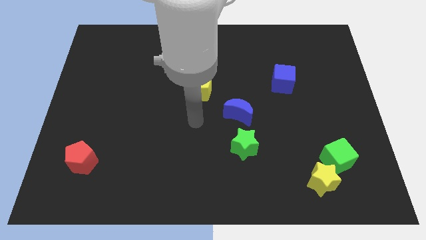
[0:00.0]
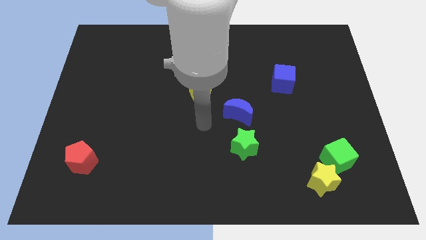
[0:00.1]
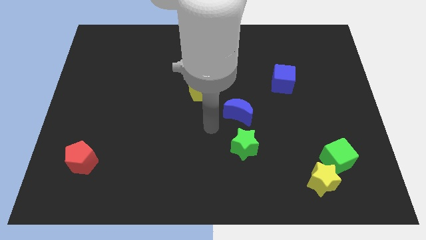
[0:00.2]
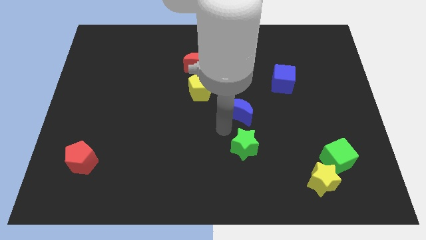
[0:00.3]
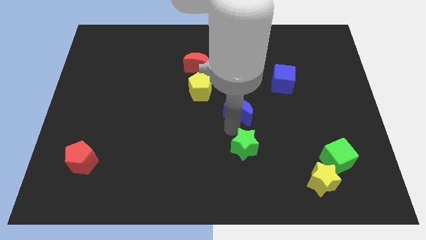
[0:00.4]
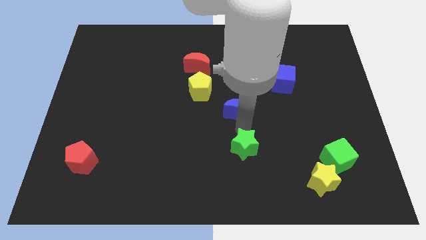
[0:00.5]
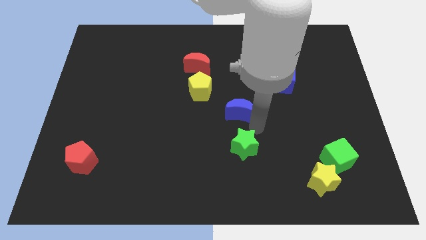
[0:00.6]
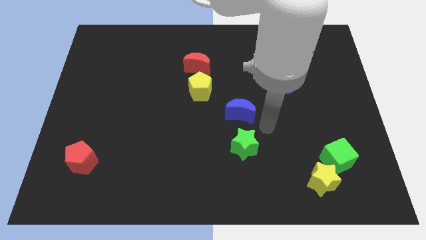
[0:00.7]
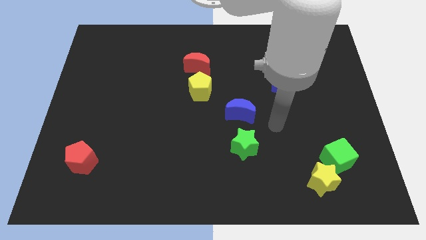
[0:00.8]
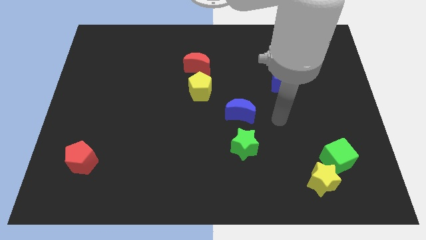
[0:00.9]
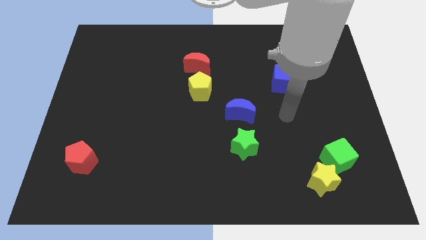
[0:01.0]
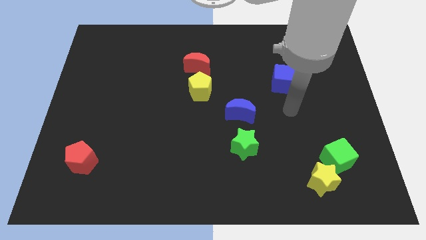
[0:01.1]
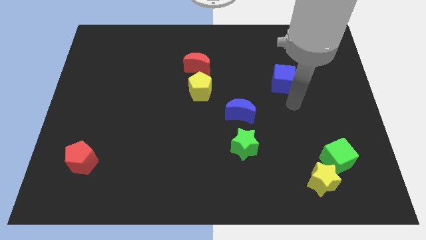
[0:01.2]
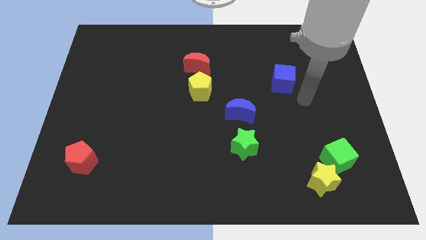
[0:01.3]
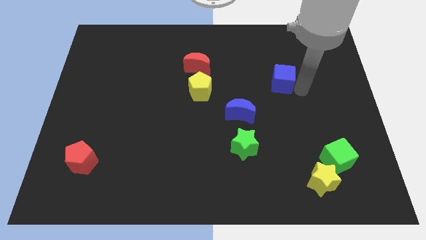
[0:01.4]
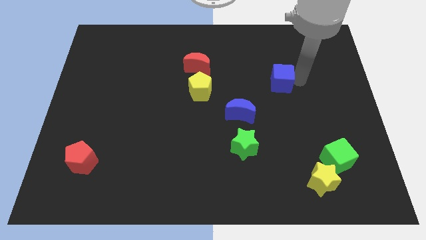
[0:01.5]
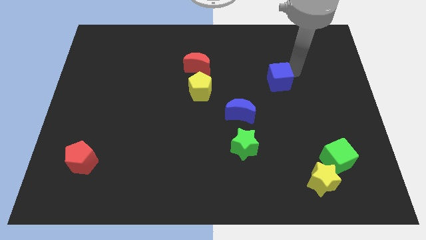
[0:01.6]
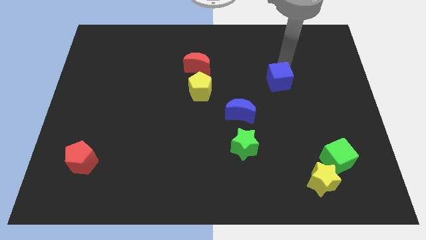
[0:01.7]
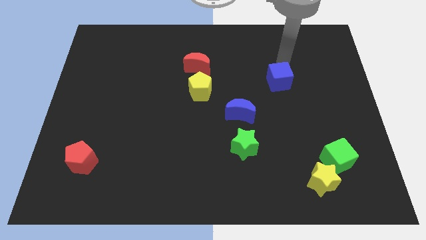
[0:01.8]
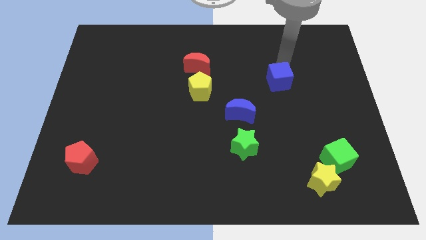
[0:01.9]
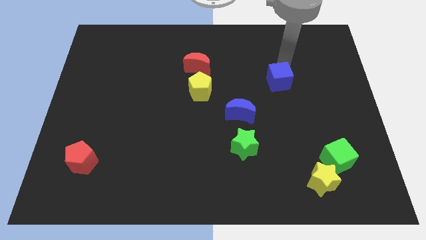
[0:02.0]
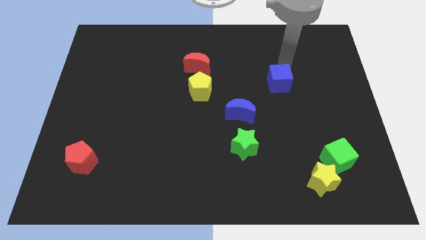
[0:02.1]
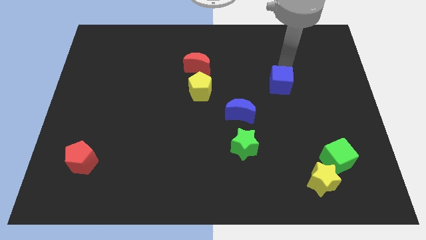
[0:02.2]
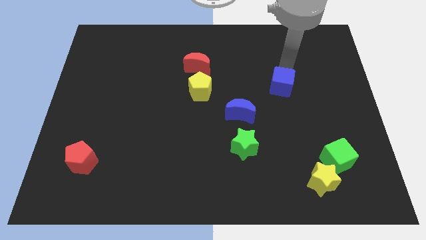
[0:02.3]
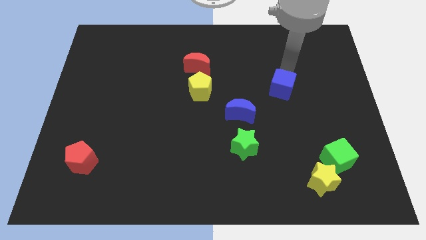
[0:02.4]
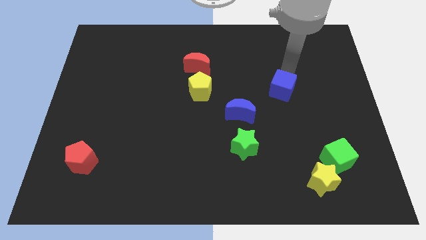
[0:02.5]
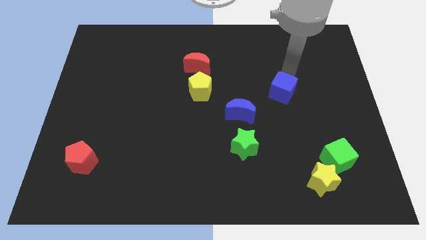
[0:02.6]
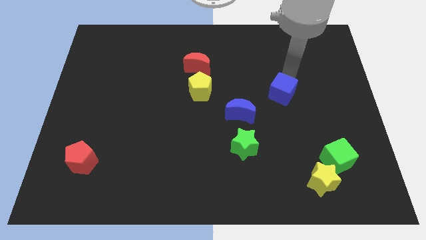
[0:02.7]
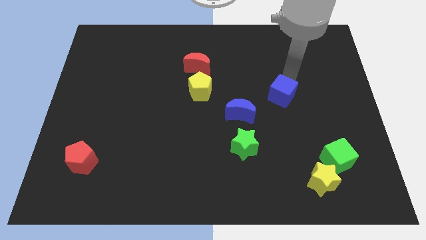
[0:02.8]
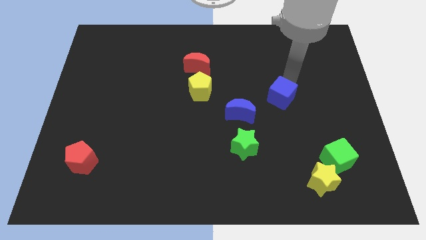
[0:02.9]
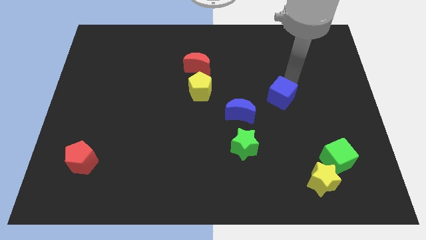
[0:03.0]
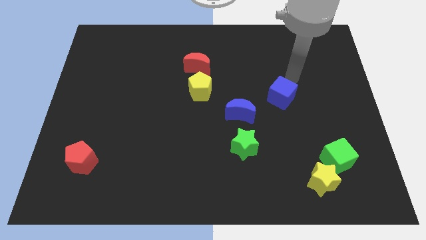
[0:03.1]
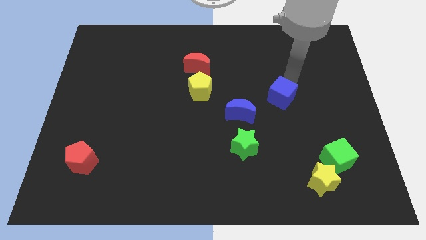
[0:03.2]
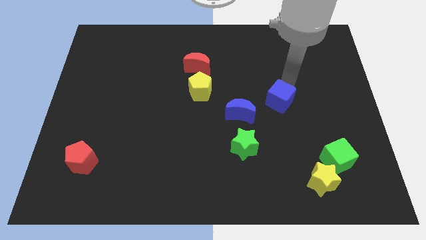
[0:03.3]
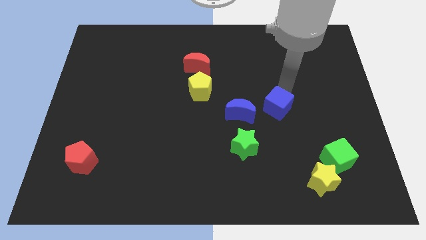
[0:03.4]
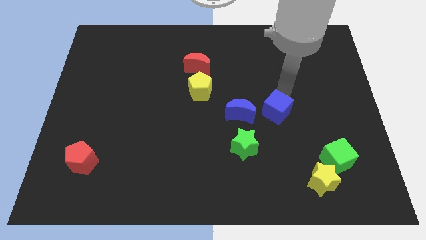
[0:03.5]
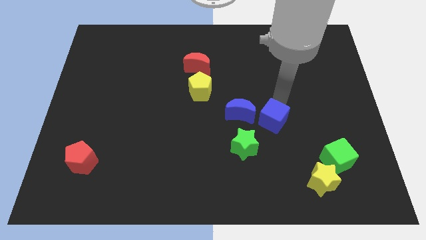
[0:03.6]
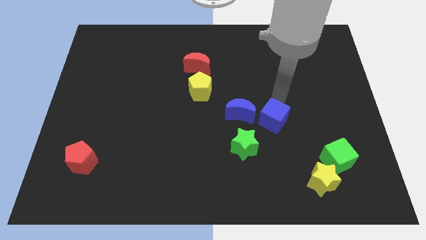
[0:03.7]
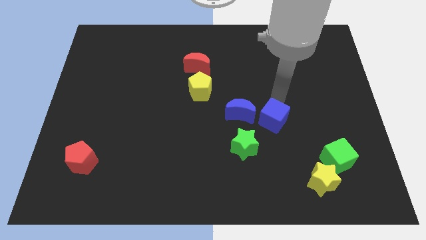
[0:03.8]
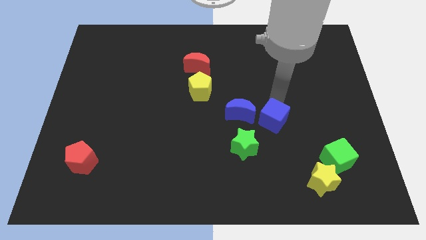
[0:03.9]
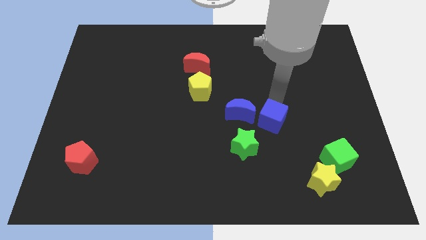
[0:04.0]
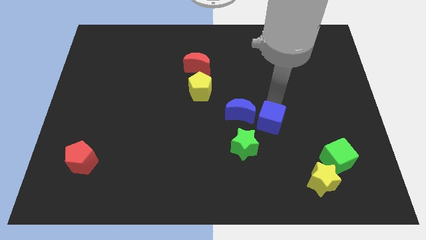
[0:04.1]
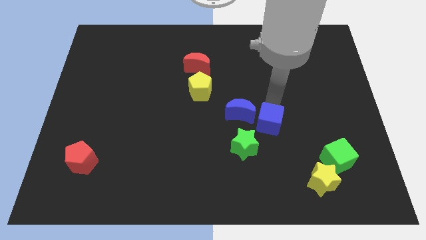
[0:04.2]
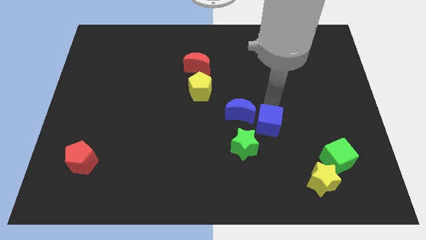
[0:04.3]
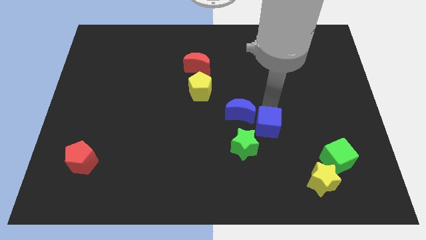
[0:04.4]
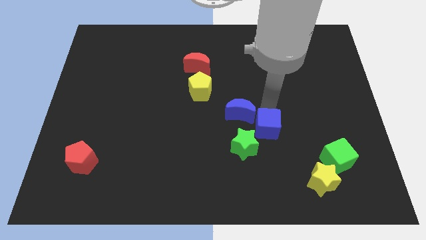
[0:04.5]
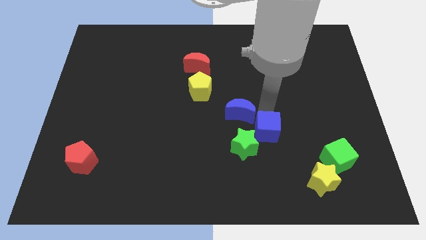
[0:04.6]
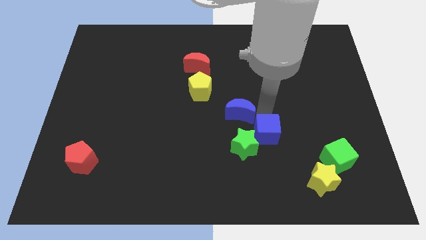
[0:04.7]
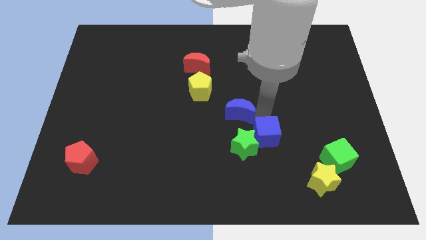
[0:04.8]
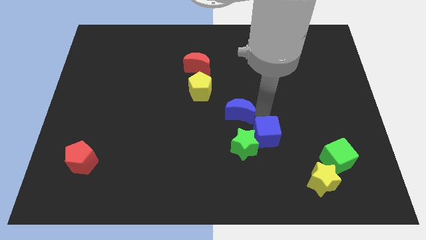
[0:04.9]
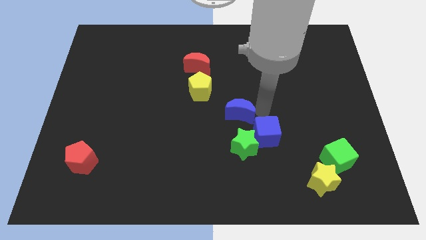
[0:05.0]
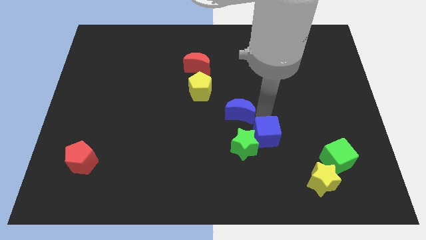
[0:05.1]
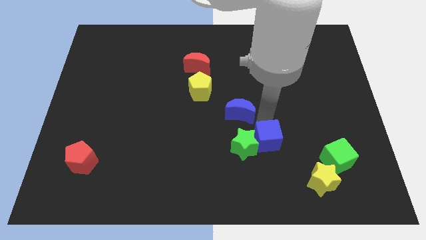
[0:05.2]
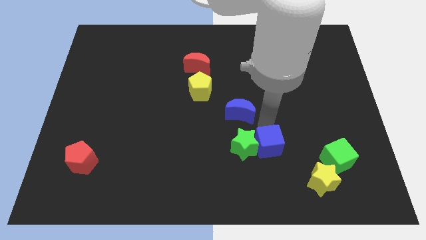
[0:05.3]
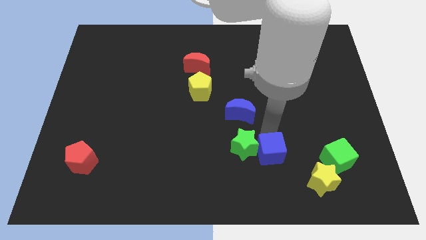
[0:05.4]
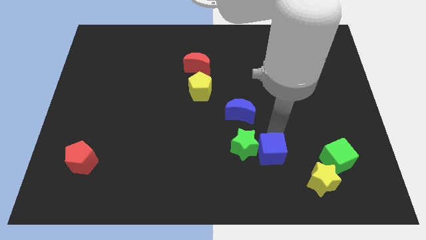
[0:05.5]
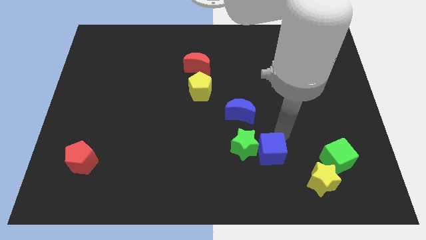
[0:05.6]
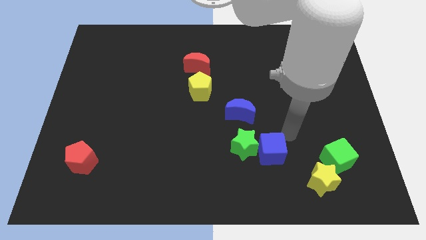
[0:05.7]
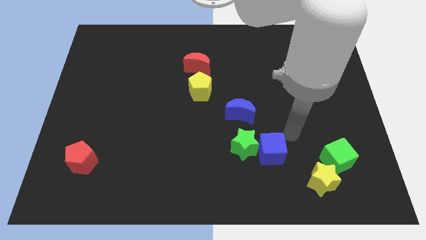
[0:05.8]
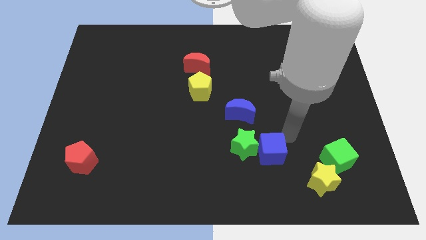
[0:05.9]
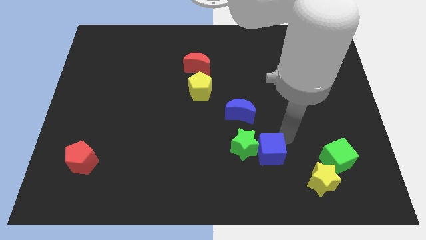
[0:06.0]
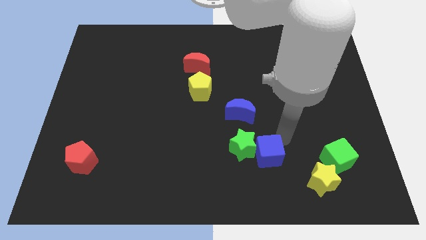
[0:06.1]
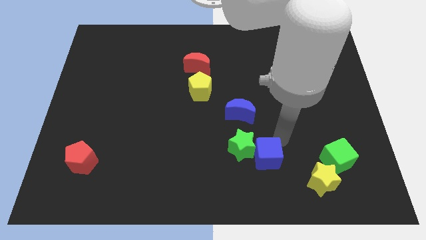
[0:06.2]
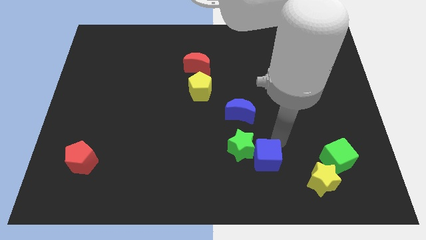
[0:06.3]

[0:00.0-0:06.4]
move the blue cube to the bottom of the blue moon

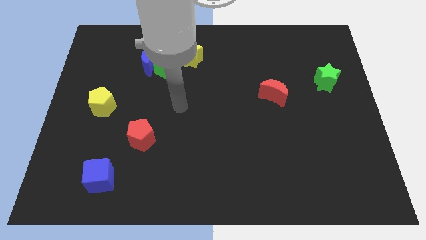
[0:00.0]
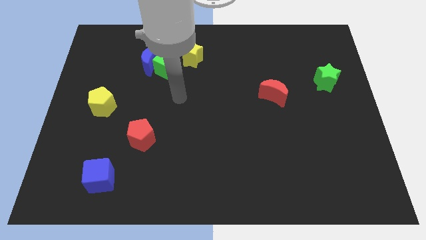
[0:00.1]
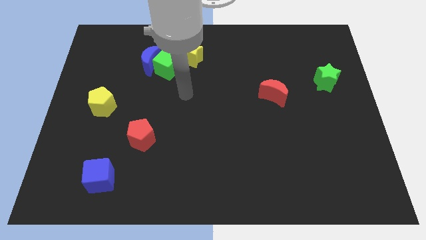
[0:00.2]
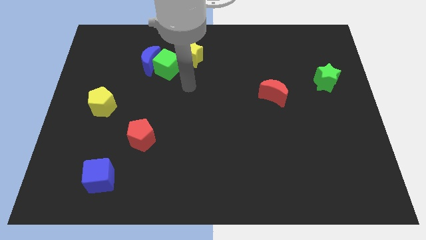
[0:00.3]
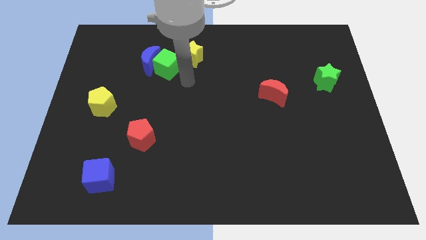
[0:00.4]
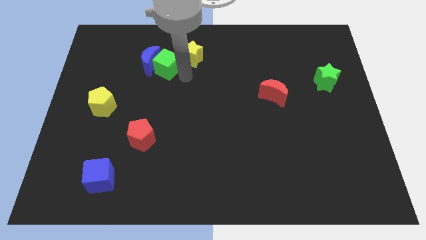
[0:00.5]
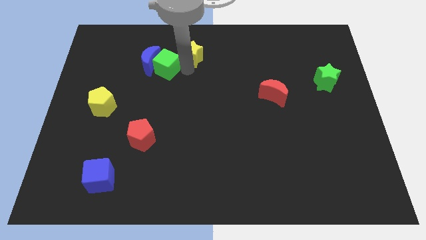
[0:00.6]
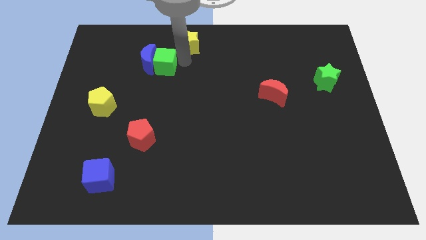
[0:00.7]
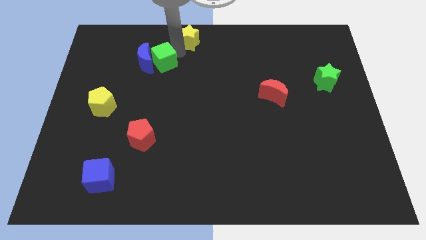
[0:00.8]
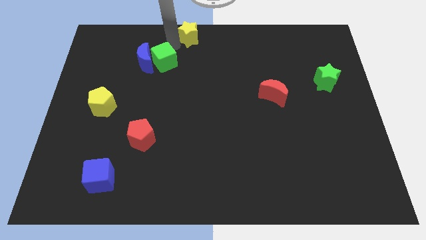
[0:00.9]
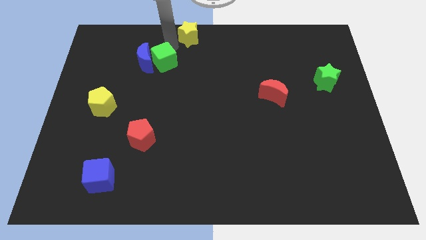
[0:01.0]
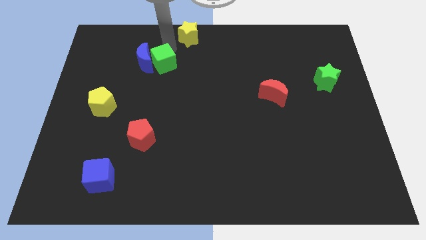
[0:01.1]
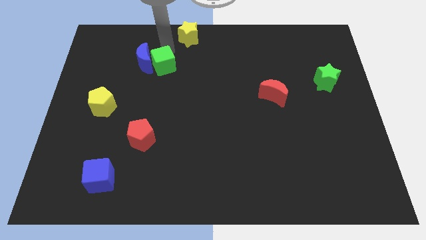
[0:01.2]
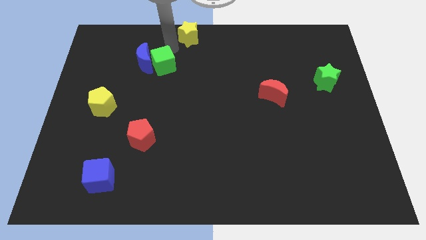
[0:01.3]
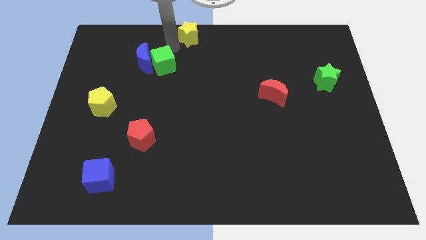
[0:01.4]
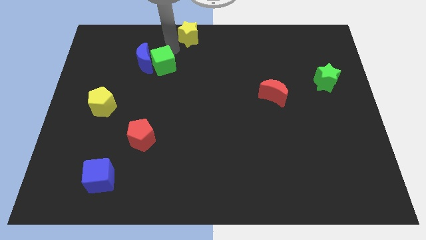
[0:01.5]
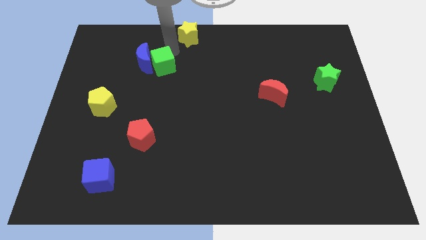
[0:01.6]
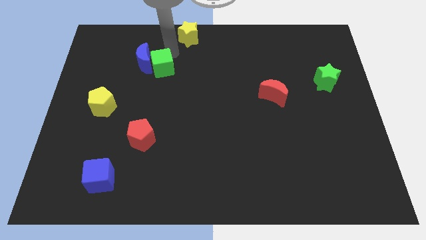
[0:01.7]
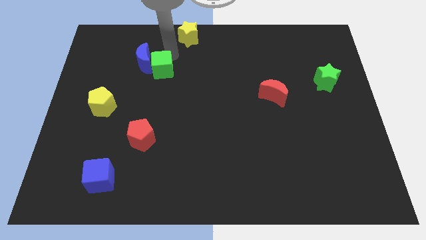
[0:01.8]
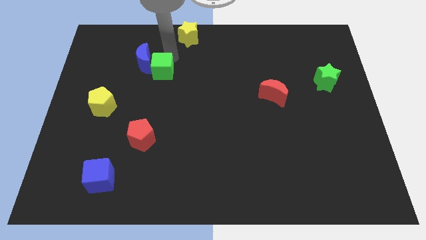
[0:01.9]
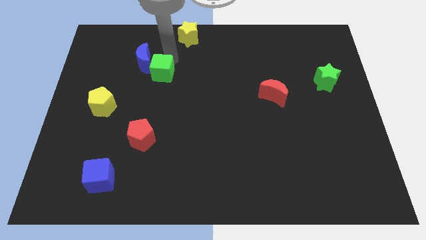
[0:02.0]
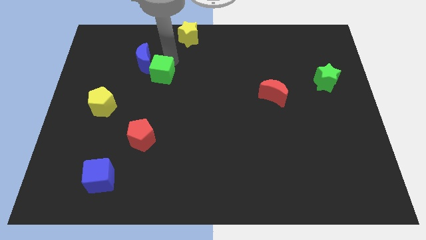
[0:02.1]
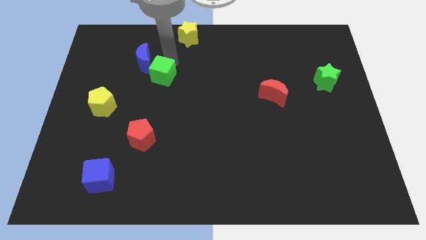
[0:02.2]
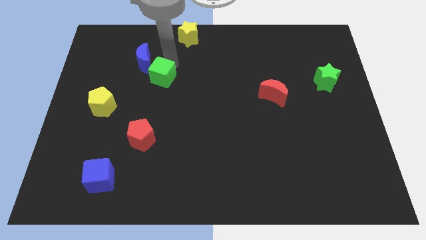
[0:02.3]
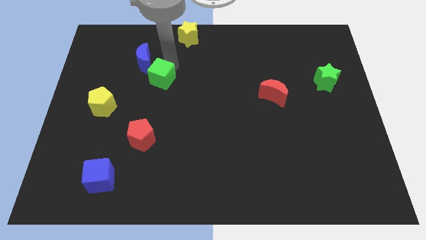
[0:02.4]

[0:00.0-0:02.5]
put the green cube below the blue moon
